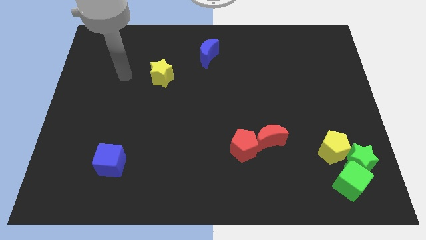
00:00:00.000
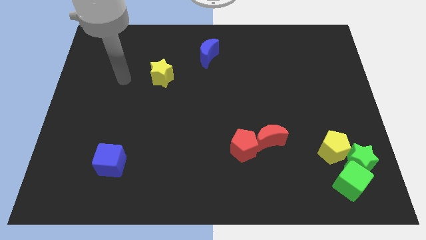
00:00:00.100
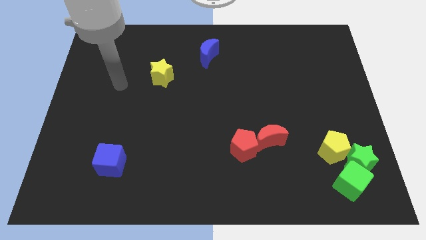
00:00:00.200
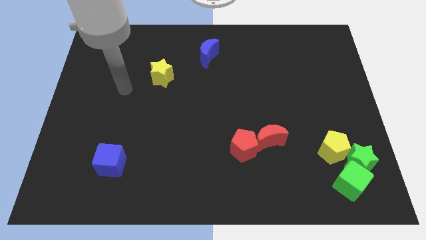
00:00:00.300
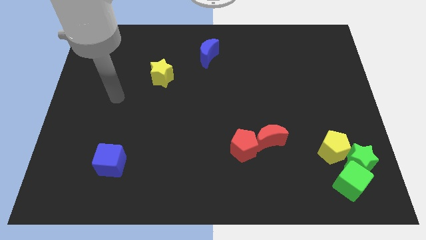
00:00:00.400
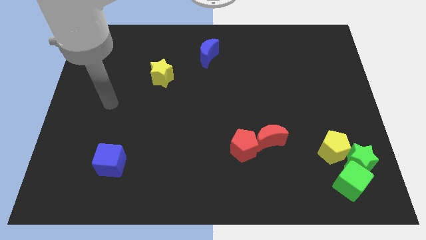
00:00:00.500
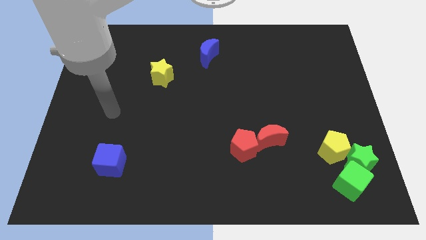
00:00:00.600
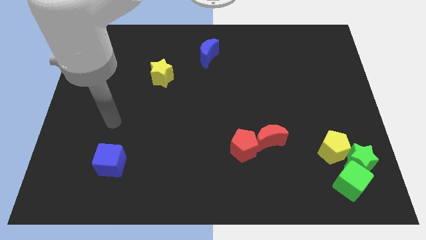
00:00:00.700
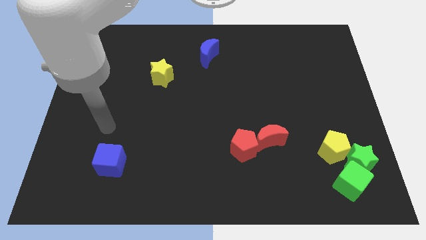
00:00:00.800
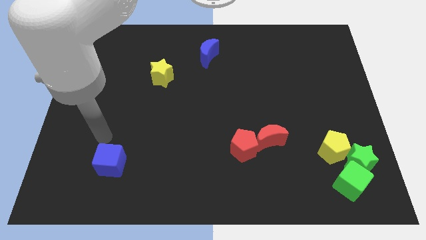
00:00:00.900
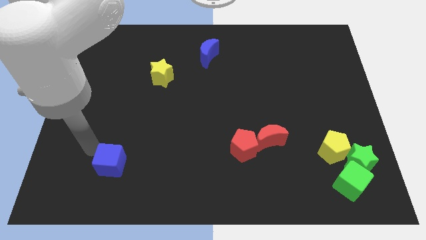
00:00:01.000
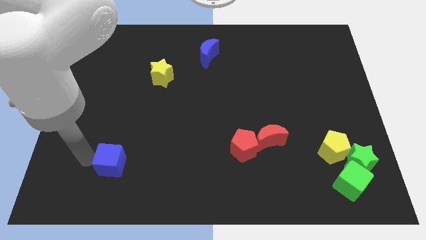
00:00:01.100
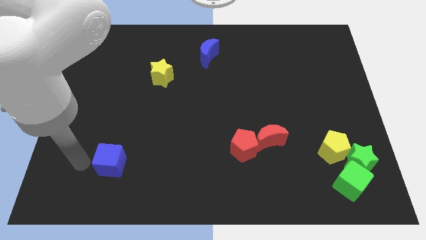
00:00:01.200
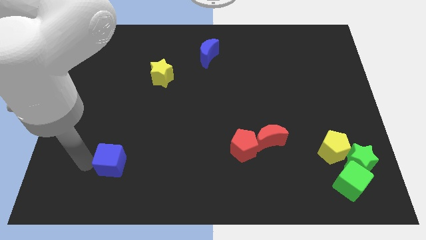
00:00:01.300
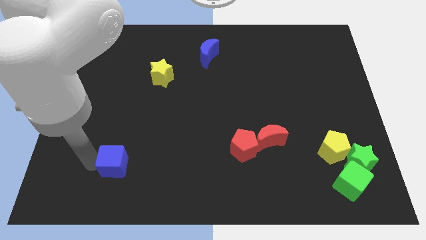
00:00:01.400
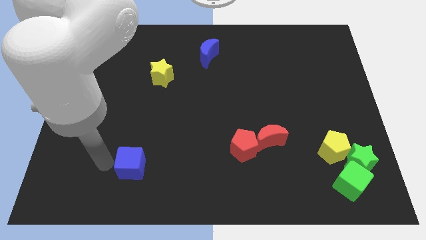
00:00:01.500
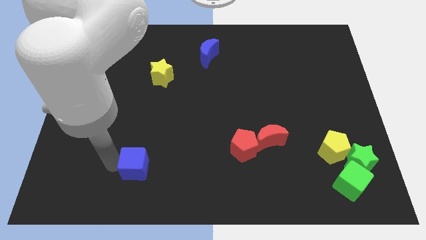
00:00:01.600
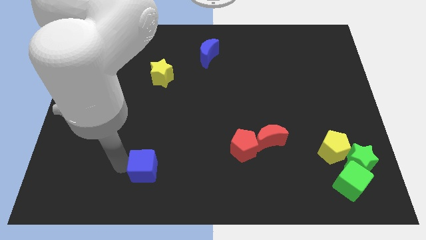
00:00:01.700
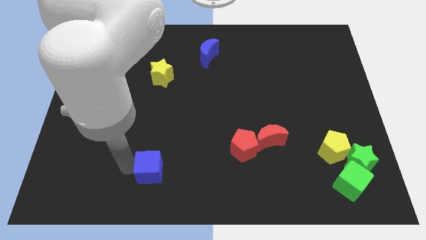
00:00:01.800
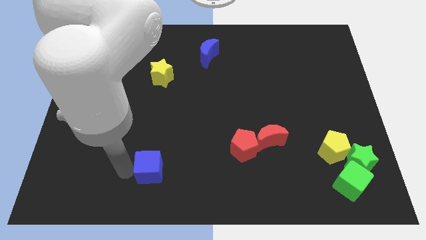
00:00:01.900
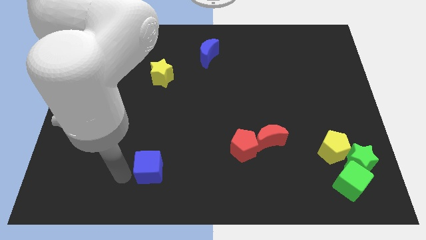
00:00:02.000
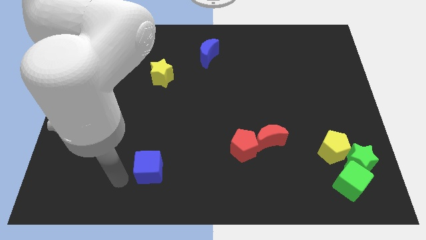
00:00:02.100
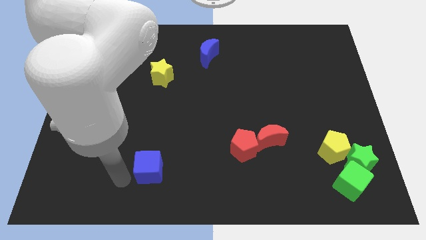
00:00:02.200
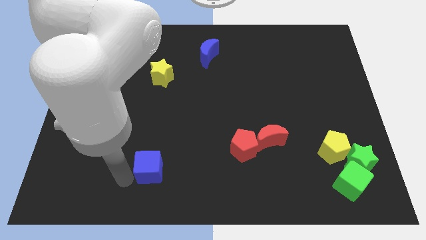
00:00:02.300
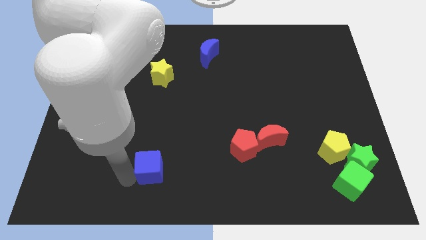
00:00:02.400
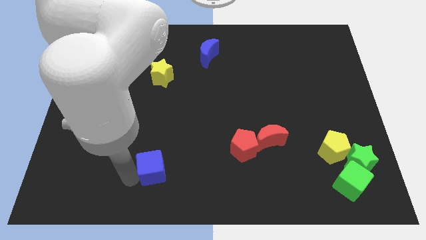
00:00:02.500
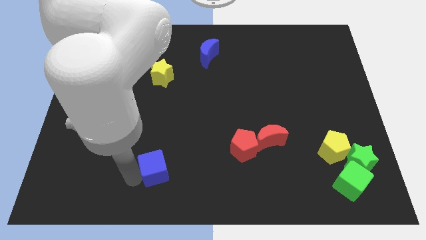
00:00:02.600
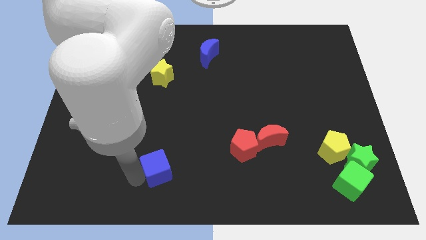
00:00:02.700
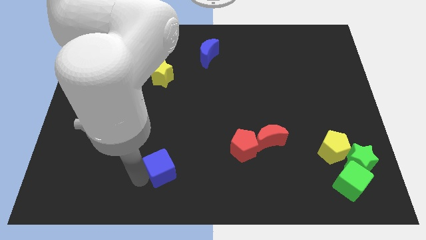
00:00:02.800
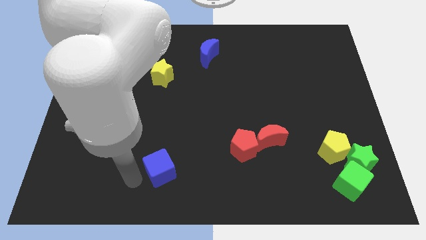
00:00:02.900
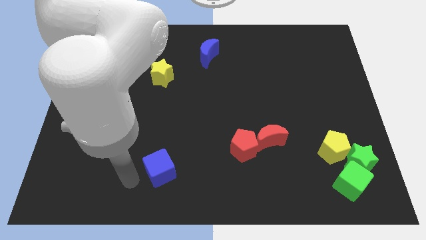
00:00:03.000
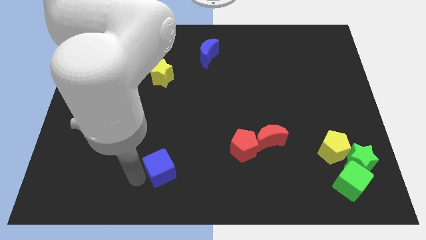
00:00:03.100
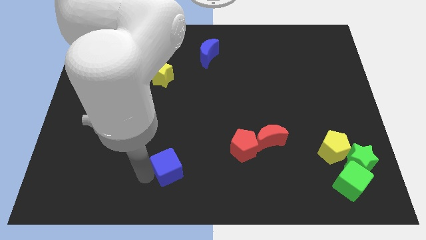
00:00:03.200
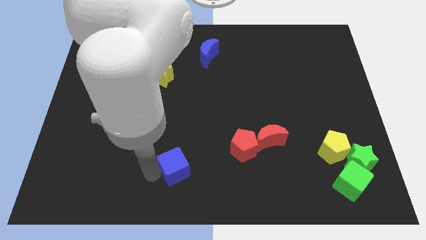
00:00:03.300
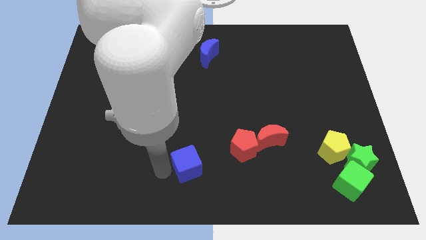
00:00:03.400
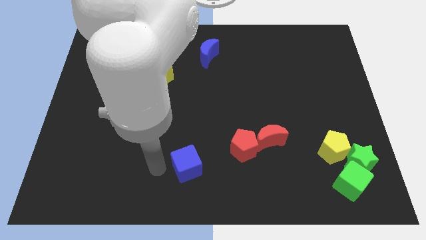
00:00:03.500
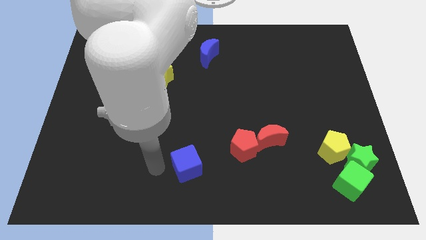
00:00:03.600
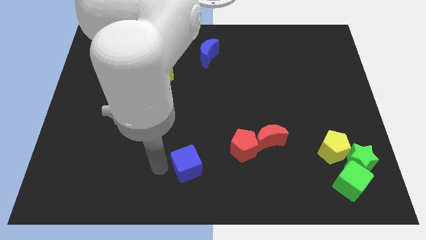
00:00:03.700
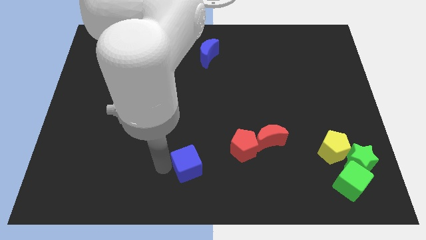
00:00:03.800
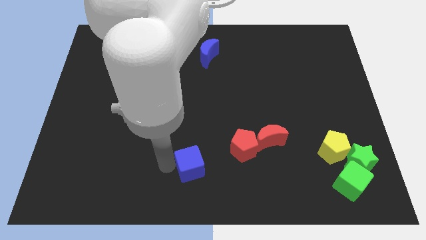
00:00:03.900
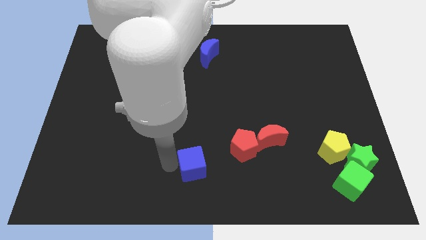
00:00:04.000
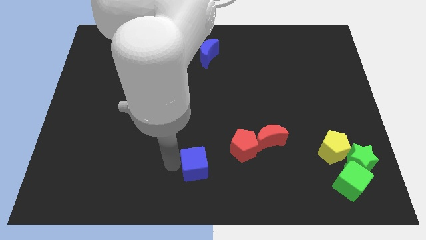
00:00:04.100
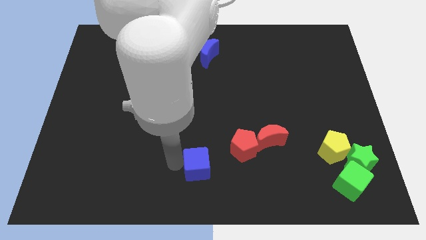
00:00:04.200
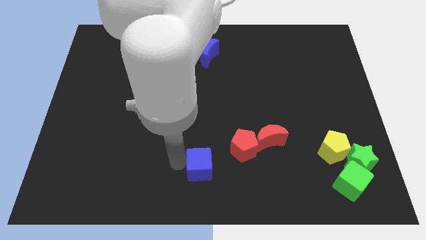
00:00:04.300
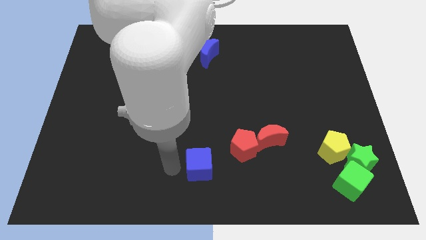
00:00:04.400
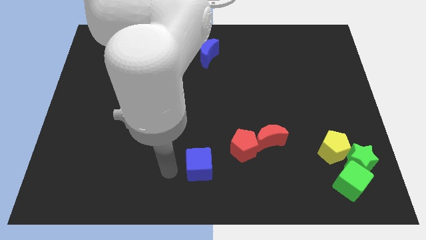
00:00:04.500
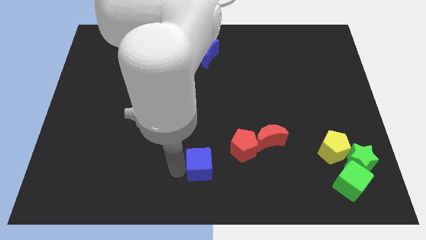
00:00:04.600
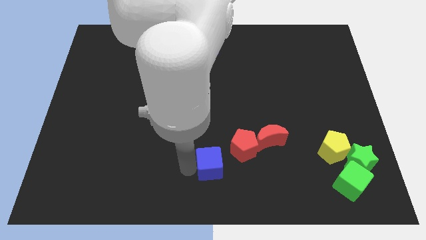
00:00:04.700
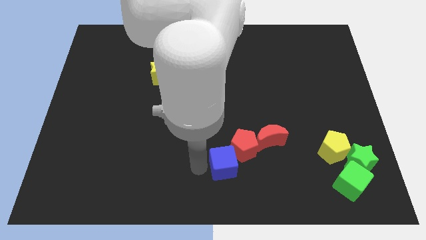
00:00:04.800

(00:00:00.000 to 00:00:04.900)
move the blue cube to the bottom left of the red moon

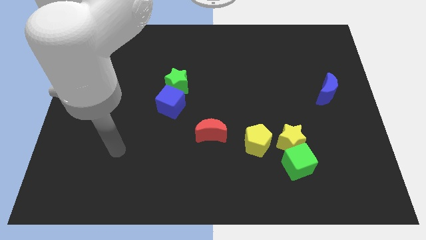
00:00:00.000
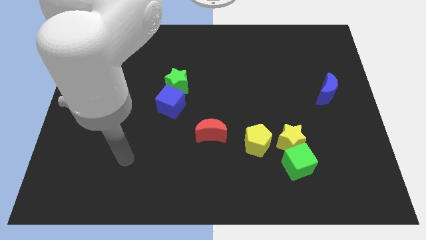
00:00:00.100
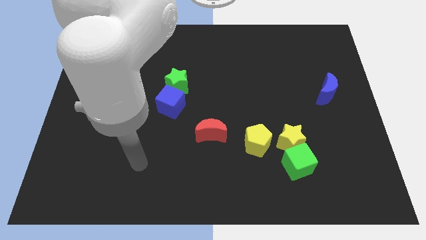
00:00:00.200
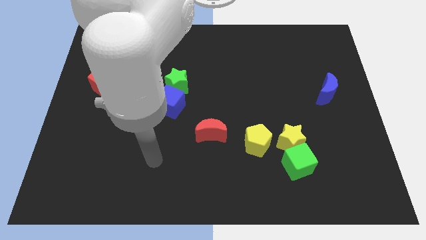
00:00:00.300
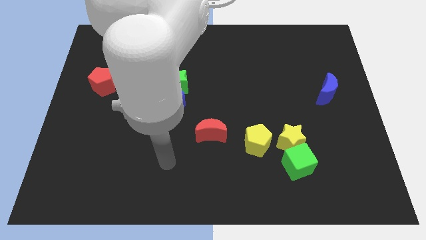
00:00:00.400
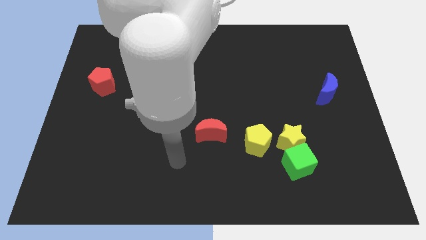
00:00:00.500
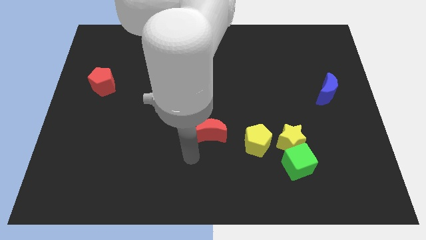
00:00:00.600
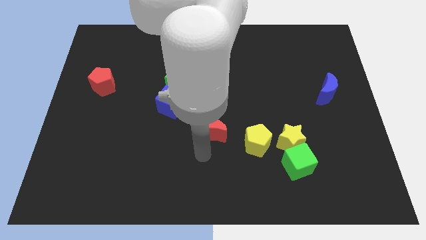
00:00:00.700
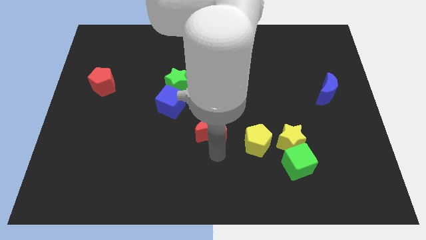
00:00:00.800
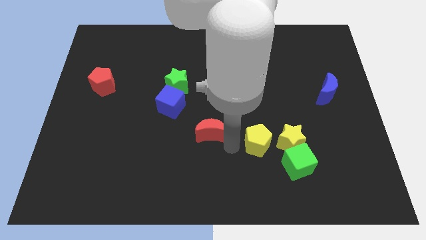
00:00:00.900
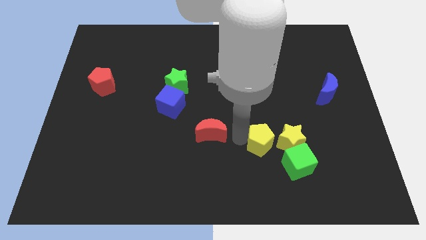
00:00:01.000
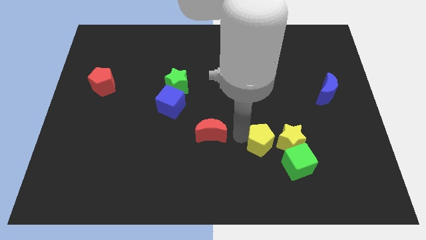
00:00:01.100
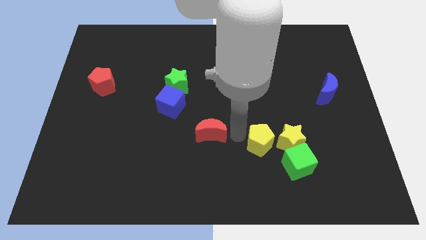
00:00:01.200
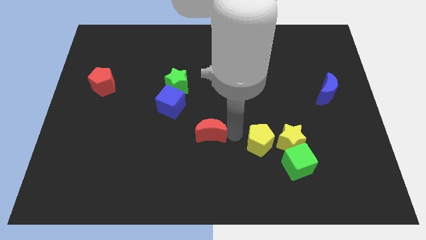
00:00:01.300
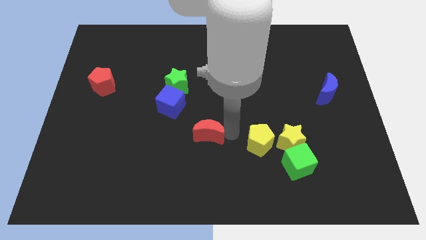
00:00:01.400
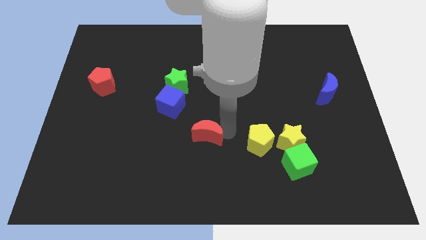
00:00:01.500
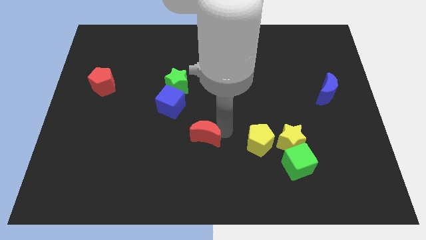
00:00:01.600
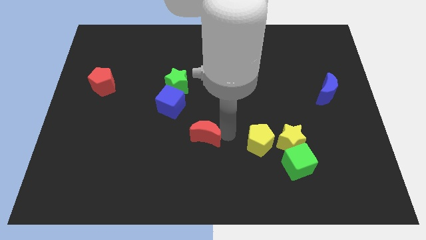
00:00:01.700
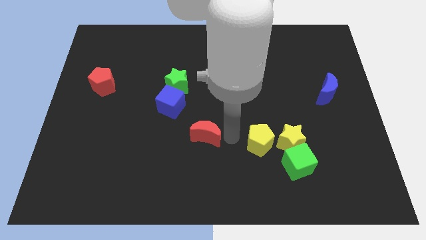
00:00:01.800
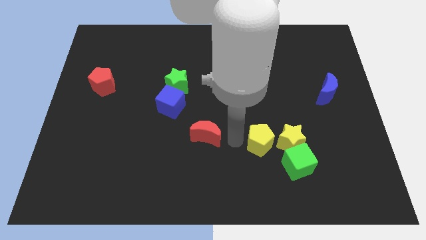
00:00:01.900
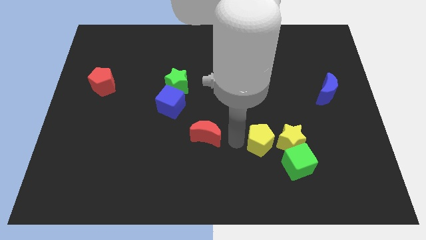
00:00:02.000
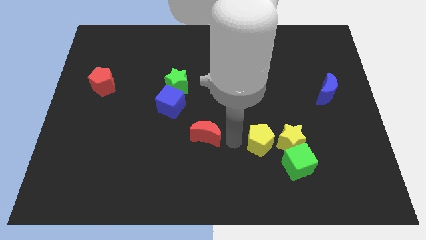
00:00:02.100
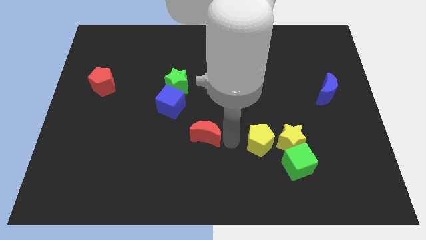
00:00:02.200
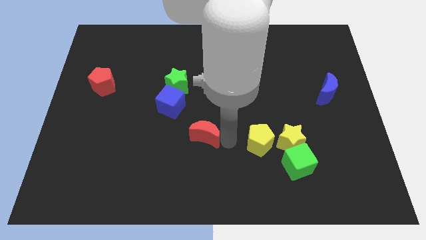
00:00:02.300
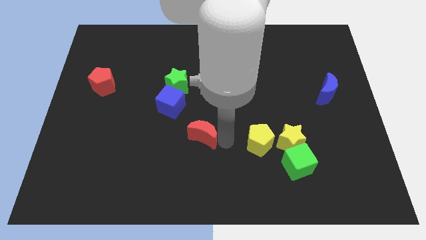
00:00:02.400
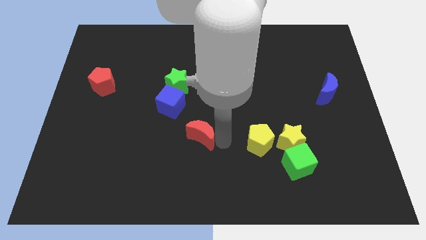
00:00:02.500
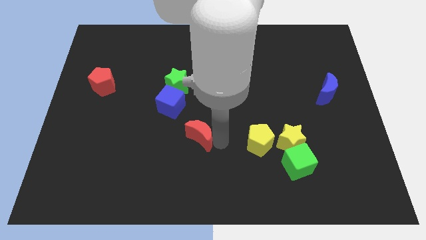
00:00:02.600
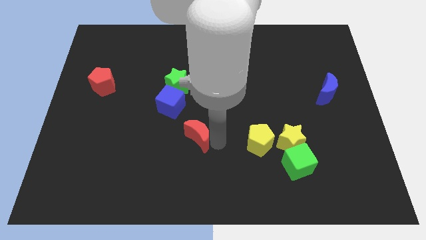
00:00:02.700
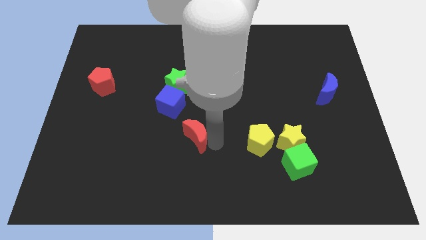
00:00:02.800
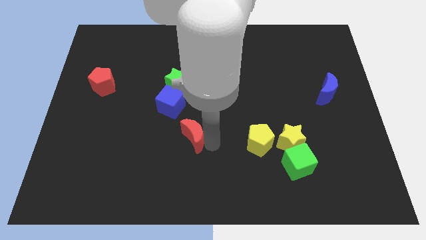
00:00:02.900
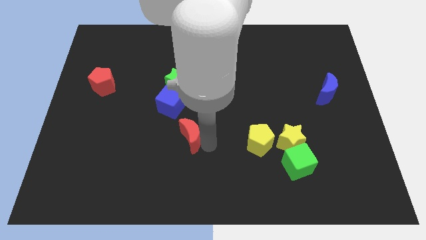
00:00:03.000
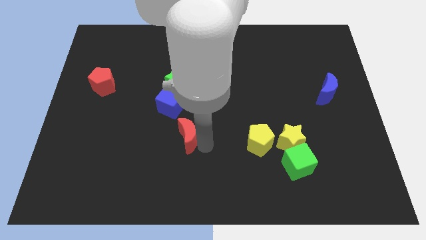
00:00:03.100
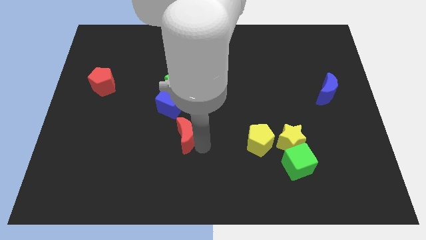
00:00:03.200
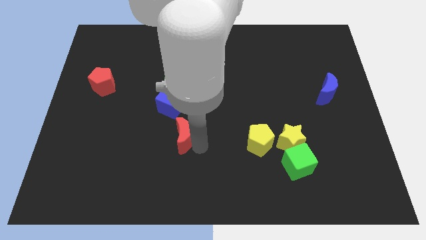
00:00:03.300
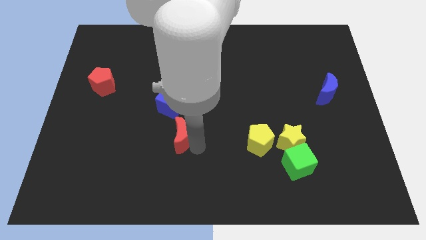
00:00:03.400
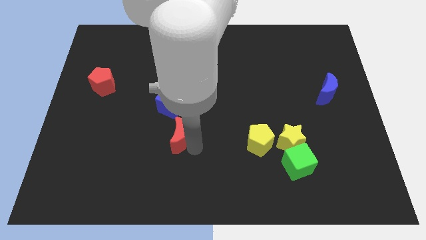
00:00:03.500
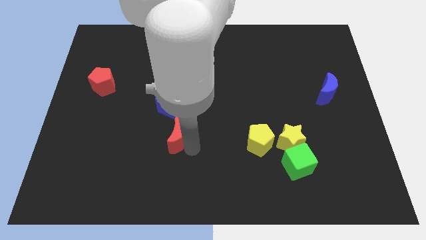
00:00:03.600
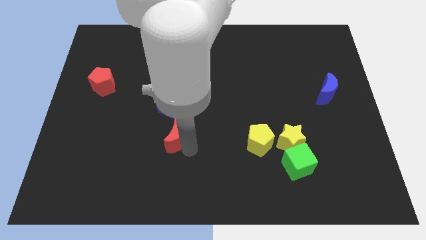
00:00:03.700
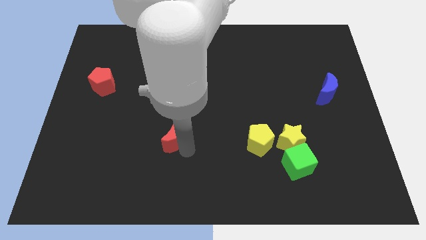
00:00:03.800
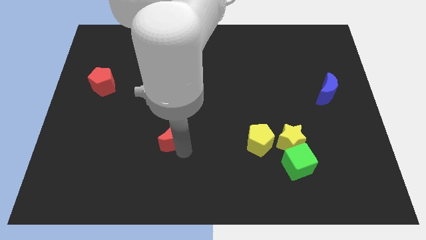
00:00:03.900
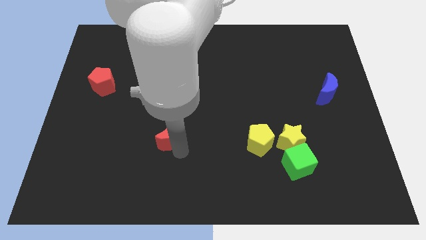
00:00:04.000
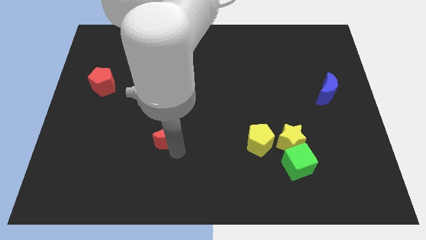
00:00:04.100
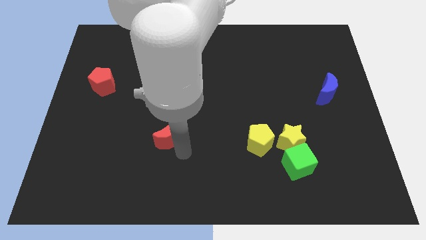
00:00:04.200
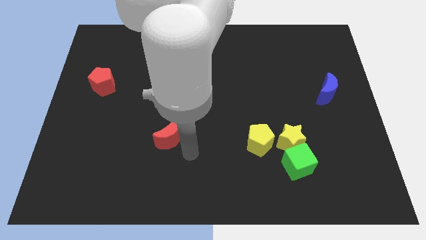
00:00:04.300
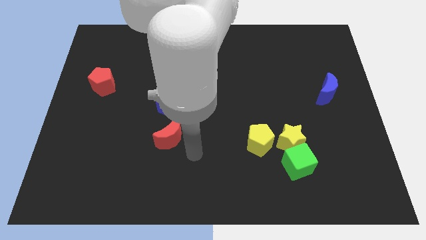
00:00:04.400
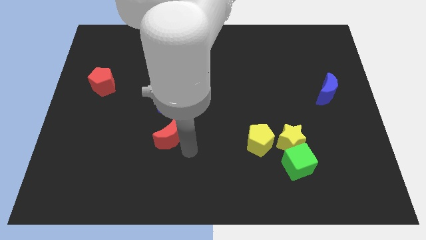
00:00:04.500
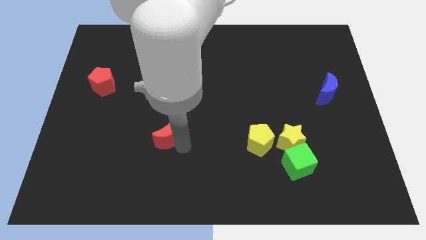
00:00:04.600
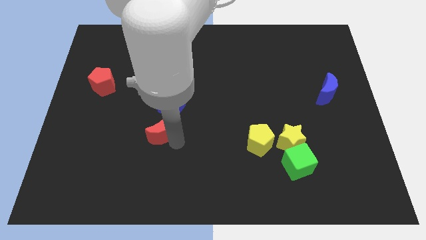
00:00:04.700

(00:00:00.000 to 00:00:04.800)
push the red moon to the bottom left side of the blue cube
